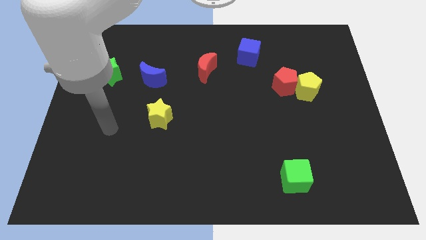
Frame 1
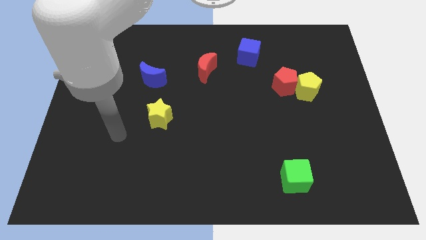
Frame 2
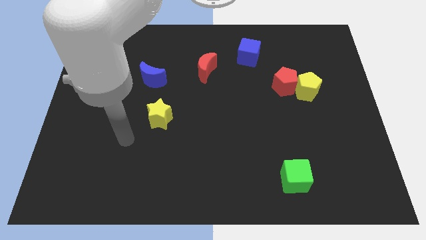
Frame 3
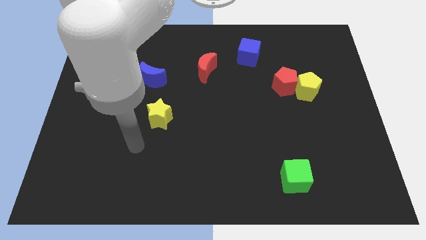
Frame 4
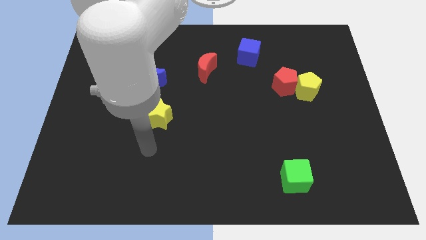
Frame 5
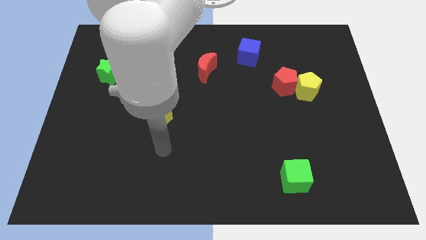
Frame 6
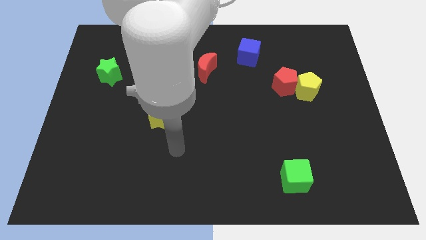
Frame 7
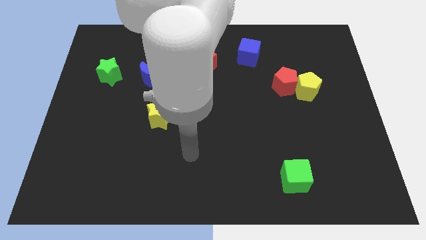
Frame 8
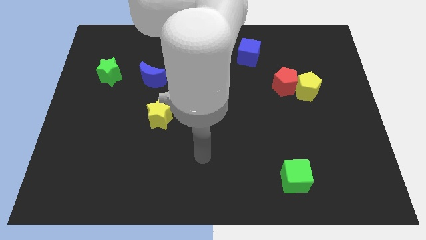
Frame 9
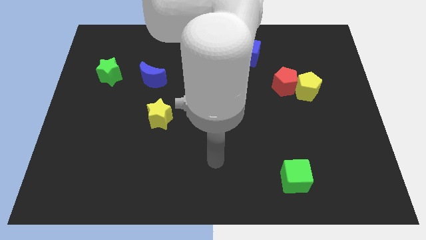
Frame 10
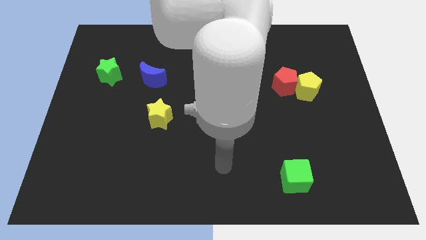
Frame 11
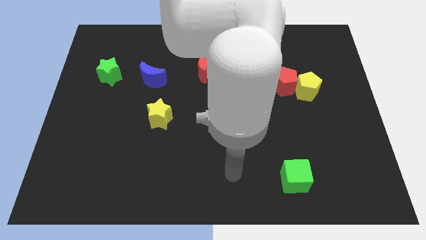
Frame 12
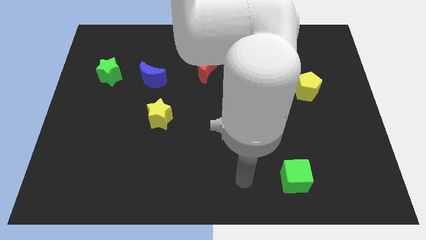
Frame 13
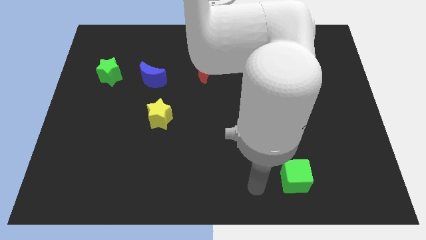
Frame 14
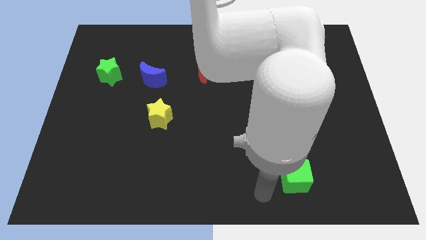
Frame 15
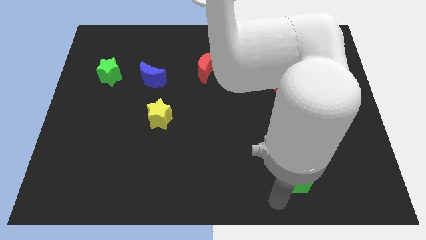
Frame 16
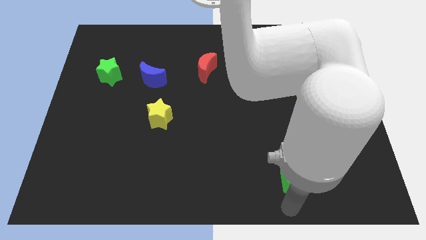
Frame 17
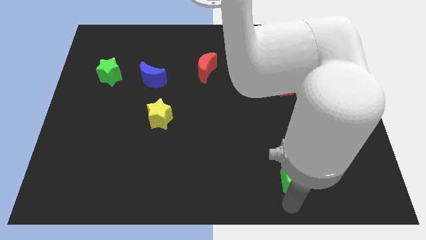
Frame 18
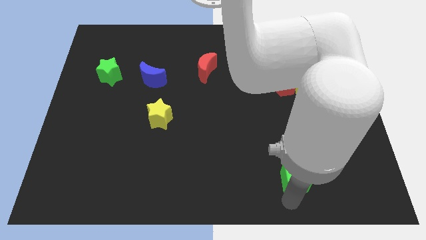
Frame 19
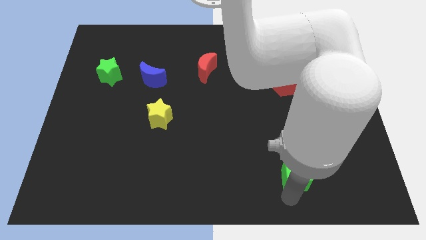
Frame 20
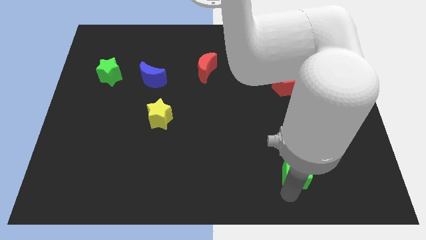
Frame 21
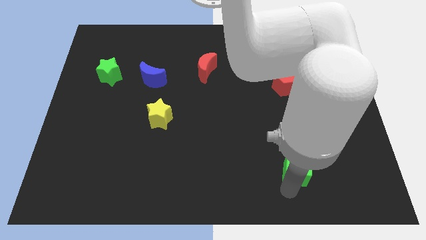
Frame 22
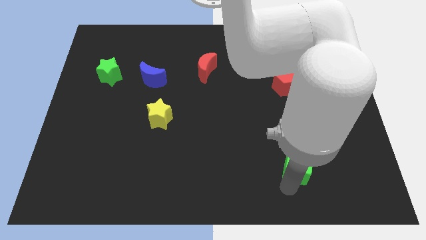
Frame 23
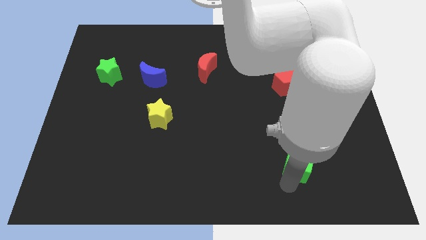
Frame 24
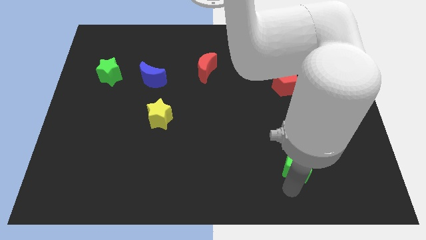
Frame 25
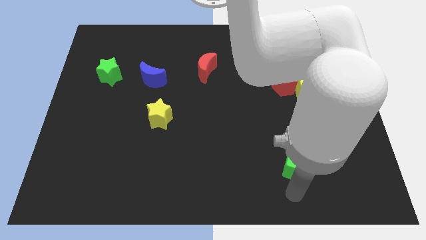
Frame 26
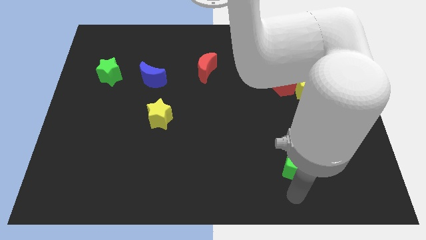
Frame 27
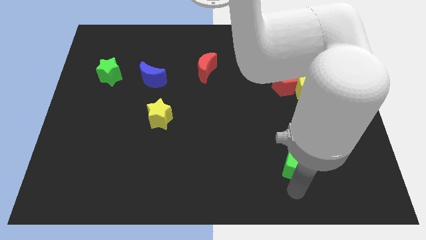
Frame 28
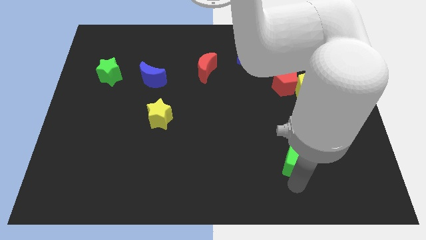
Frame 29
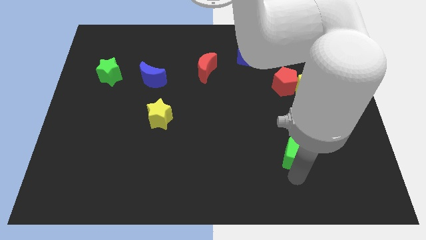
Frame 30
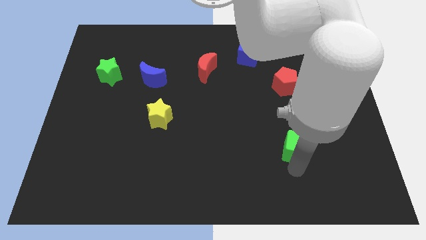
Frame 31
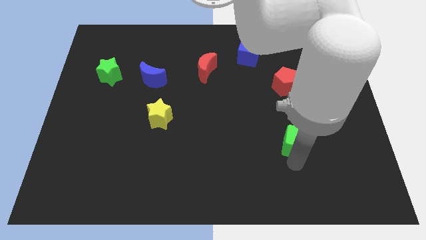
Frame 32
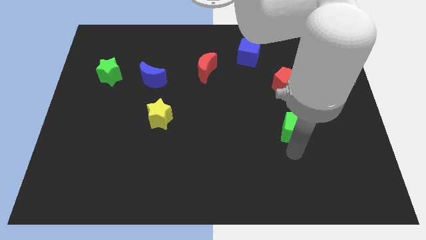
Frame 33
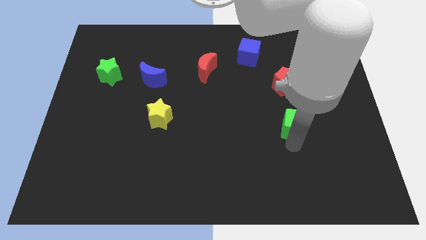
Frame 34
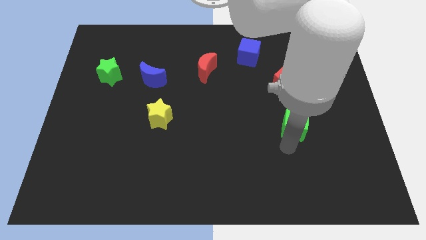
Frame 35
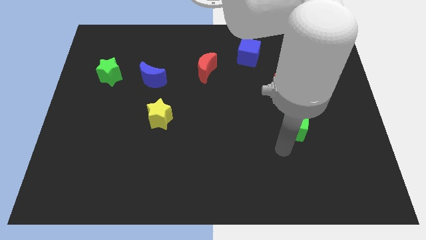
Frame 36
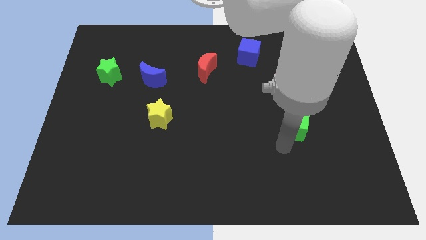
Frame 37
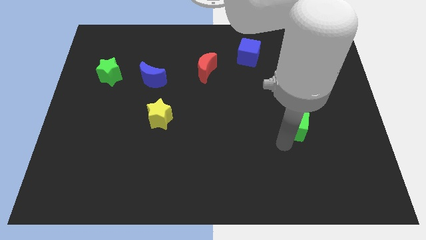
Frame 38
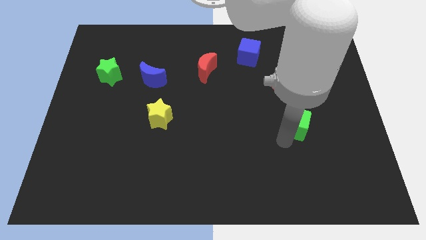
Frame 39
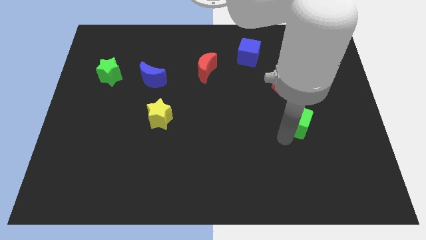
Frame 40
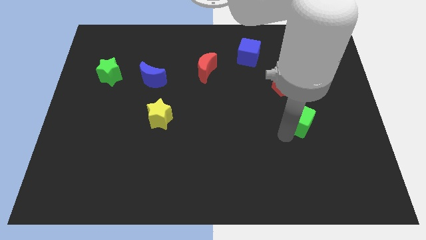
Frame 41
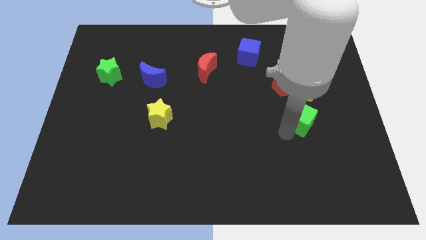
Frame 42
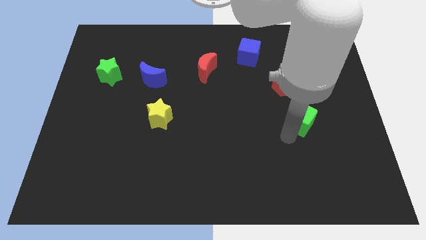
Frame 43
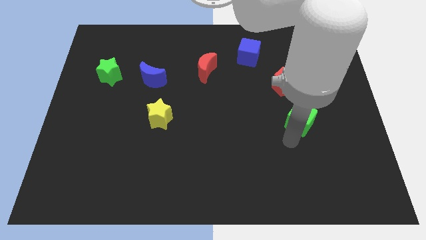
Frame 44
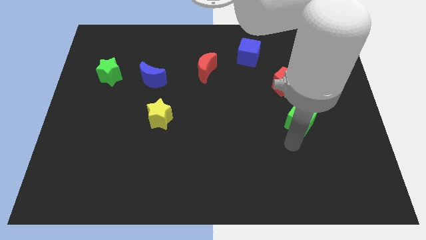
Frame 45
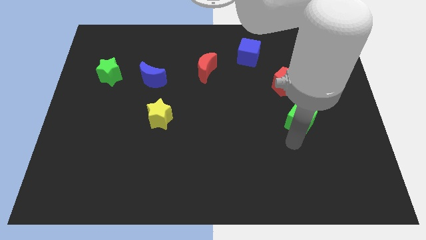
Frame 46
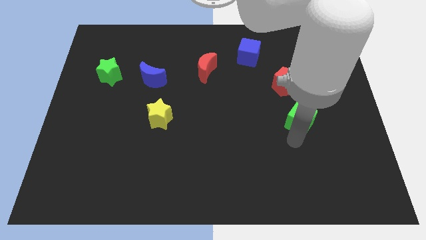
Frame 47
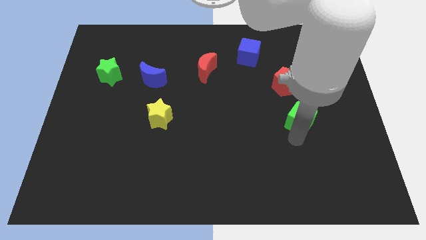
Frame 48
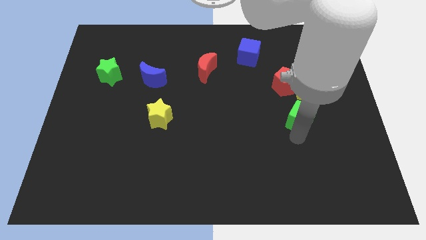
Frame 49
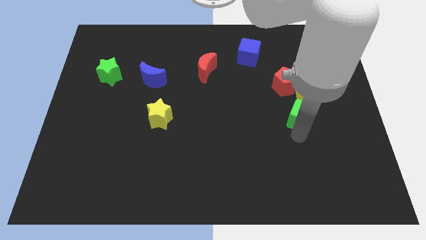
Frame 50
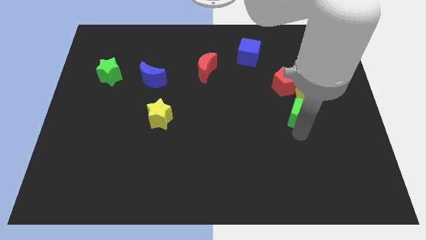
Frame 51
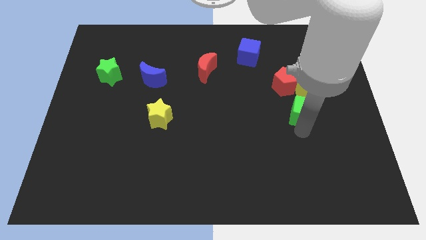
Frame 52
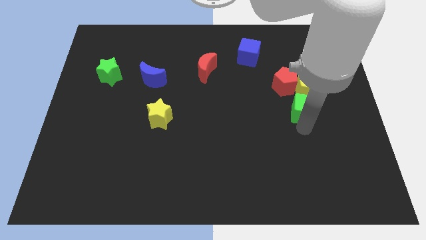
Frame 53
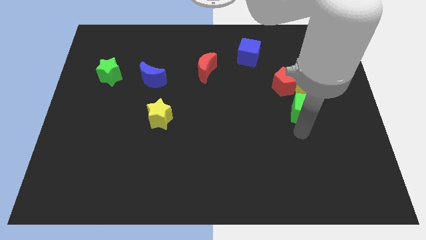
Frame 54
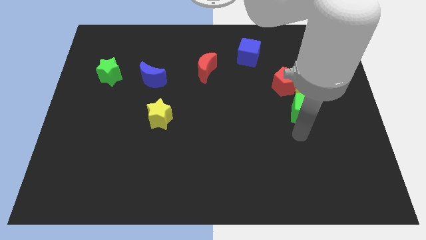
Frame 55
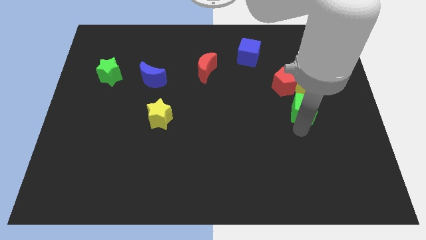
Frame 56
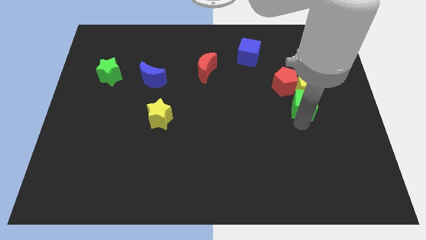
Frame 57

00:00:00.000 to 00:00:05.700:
push the green cube to the yellow pentagon

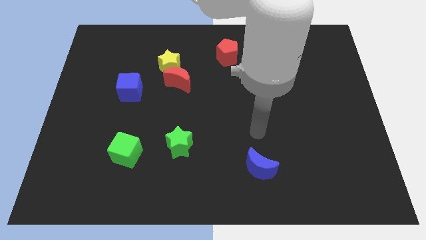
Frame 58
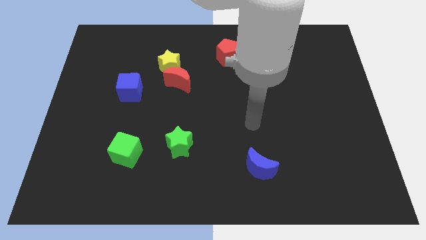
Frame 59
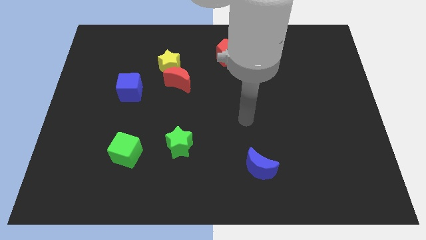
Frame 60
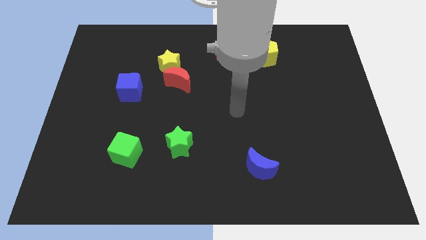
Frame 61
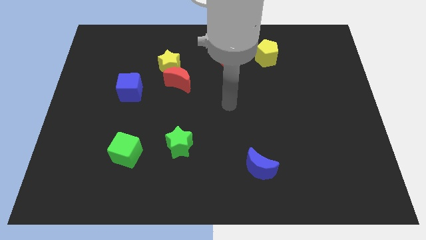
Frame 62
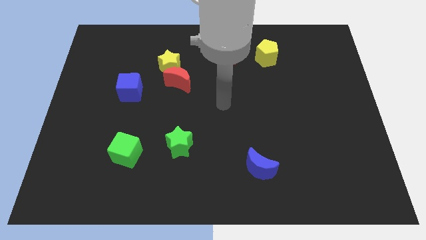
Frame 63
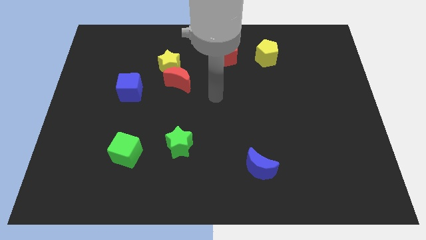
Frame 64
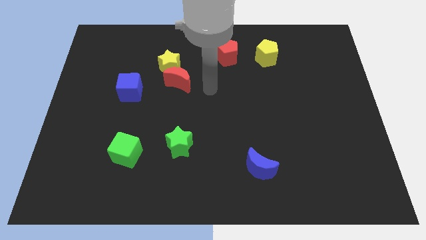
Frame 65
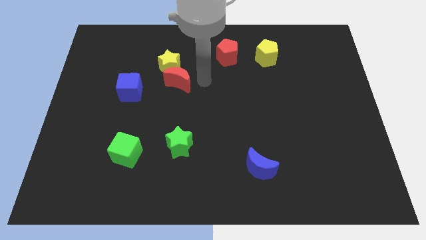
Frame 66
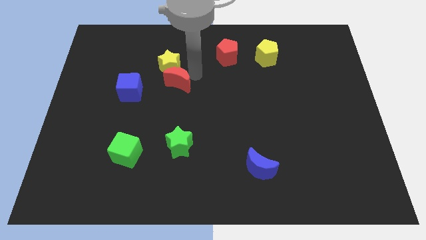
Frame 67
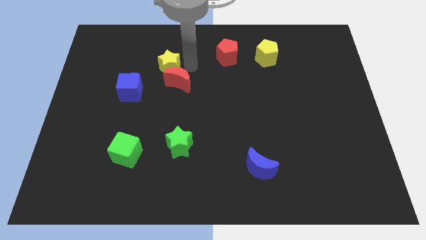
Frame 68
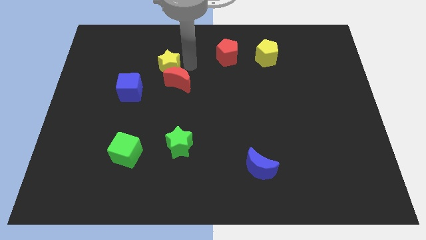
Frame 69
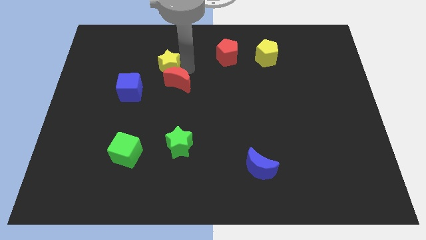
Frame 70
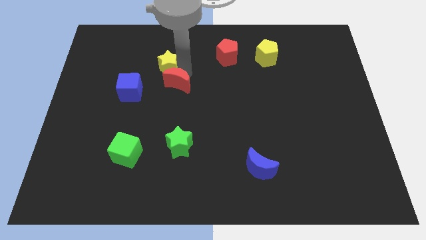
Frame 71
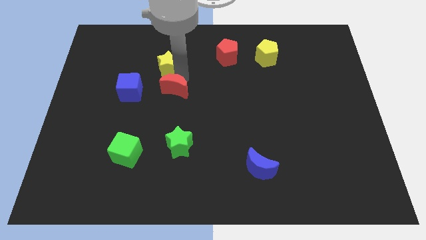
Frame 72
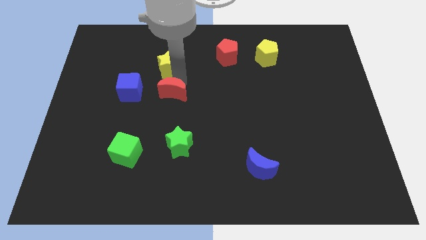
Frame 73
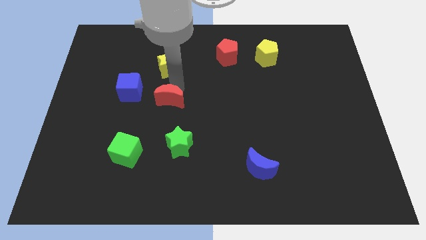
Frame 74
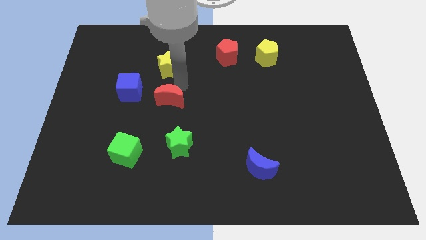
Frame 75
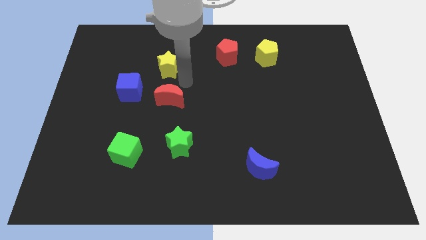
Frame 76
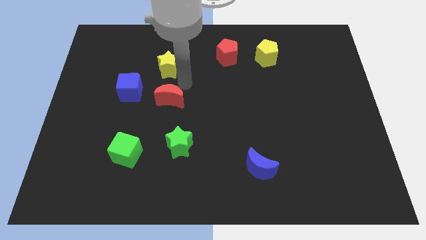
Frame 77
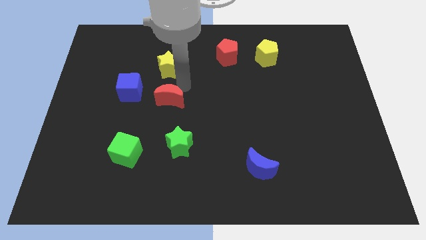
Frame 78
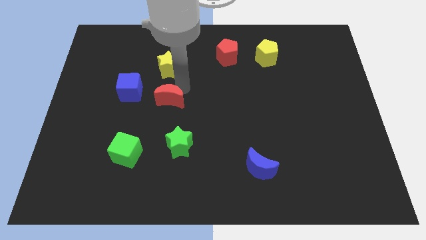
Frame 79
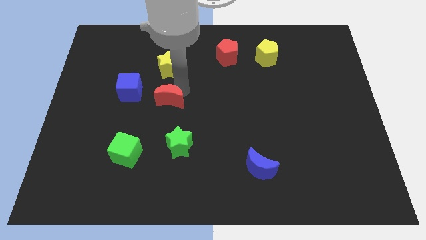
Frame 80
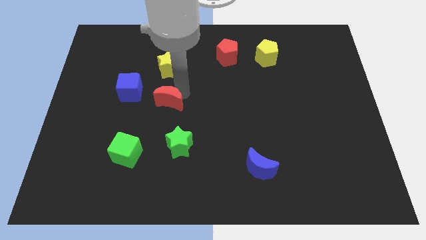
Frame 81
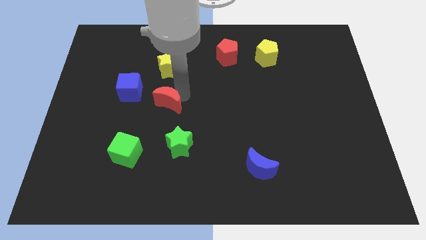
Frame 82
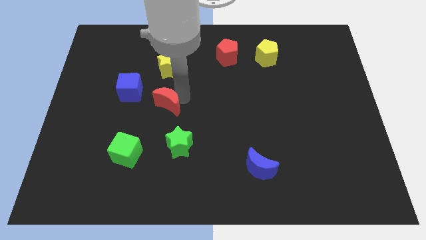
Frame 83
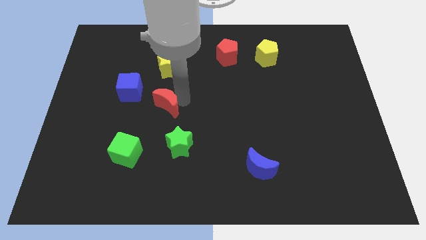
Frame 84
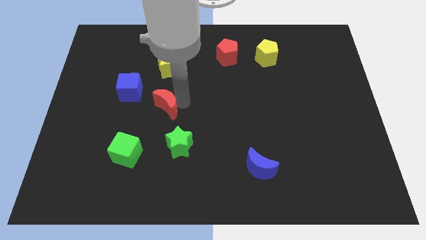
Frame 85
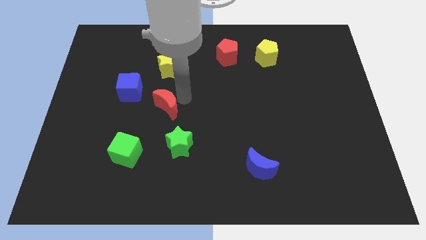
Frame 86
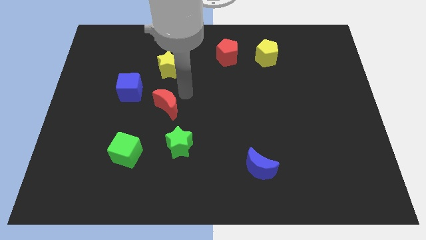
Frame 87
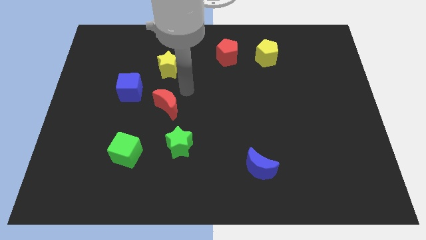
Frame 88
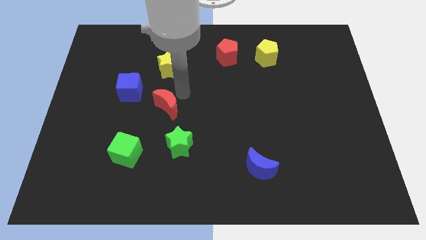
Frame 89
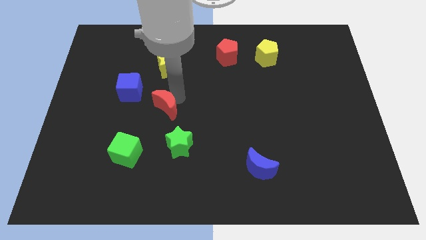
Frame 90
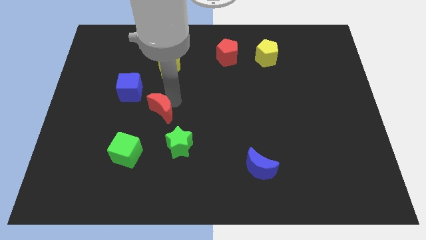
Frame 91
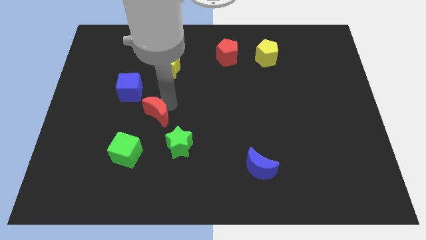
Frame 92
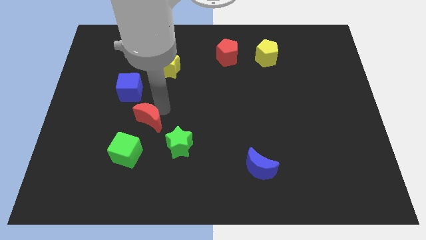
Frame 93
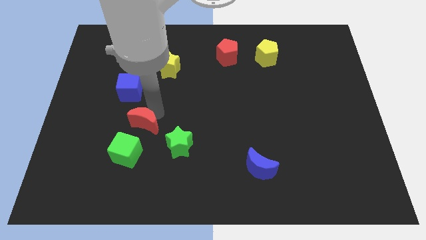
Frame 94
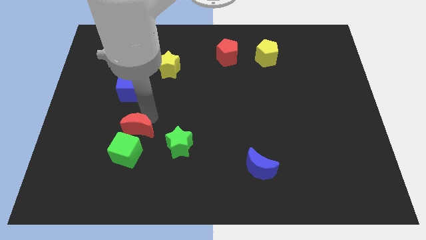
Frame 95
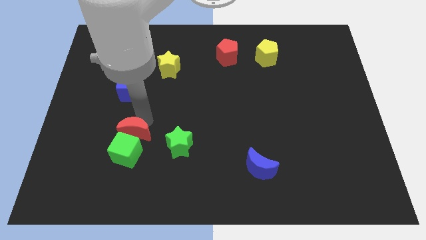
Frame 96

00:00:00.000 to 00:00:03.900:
put the red moon towards the green cube
